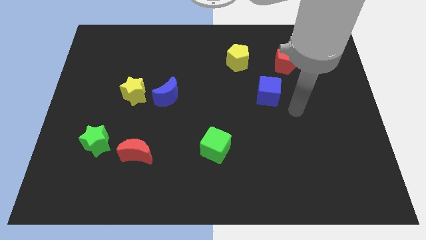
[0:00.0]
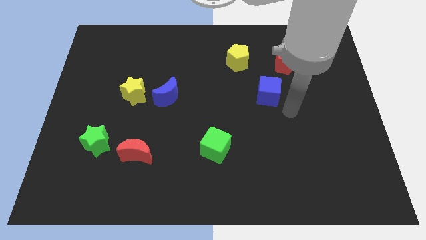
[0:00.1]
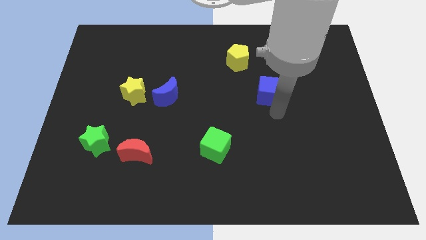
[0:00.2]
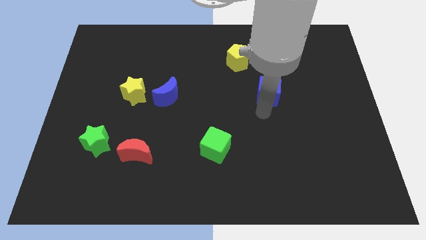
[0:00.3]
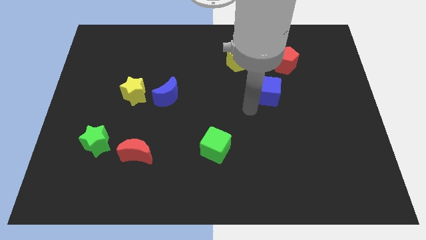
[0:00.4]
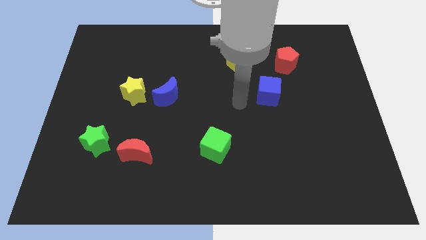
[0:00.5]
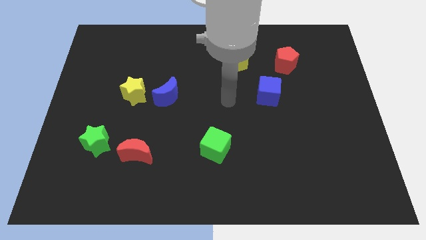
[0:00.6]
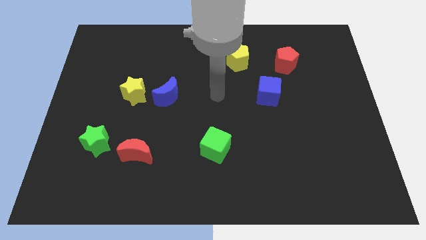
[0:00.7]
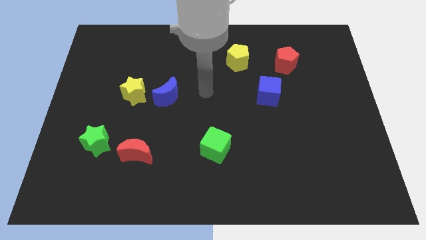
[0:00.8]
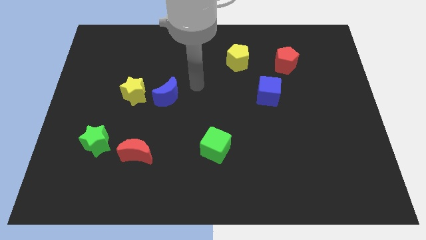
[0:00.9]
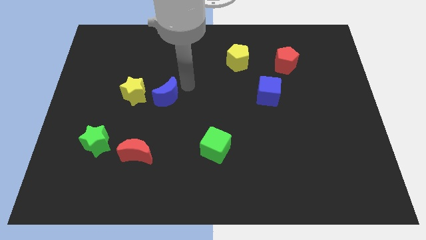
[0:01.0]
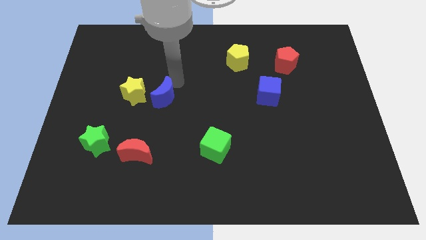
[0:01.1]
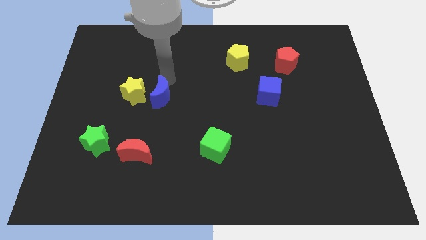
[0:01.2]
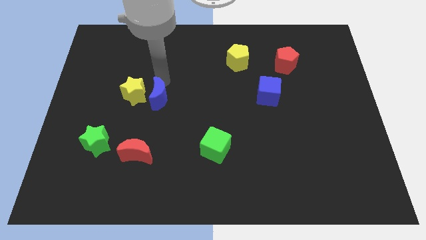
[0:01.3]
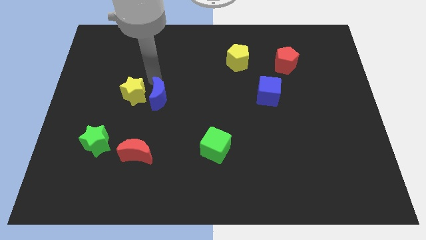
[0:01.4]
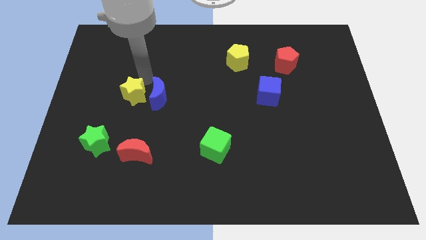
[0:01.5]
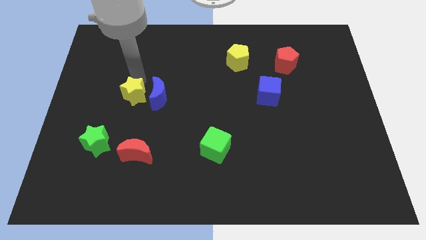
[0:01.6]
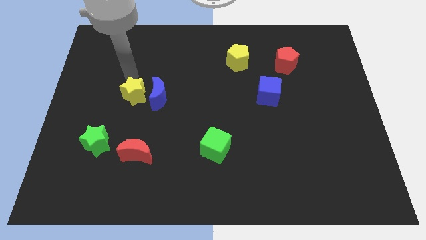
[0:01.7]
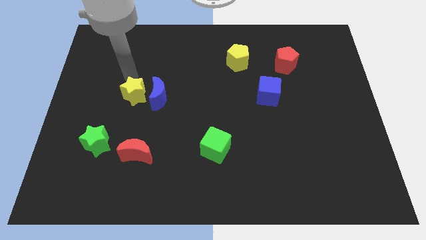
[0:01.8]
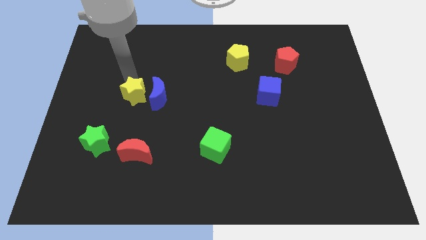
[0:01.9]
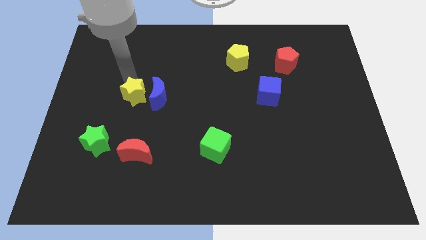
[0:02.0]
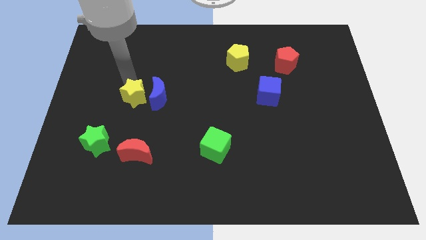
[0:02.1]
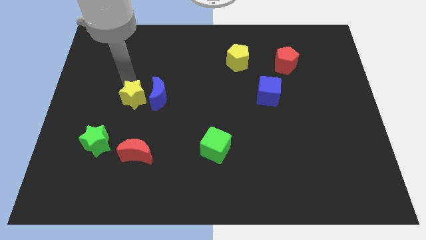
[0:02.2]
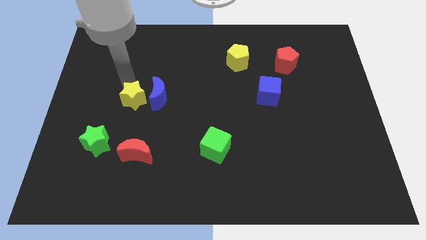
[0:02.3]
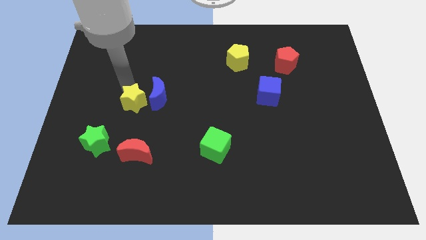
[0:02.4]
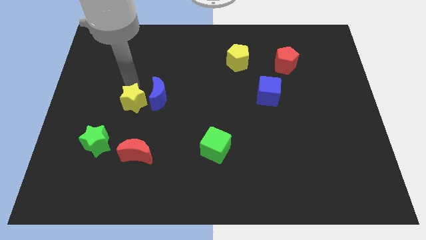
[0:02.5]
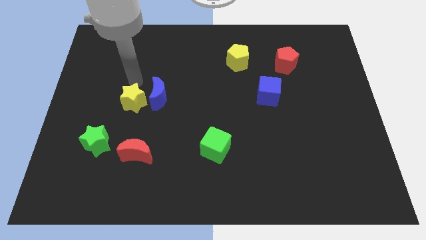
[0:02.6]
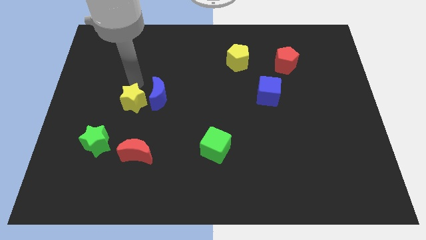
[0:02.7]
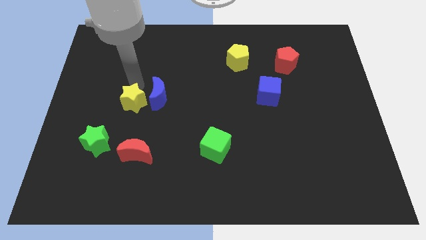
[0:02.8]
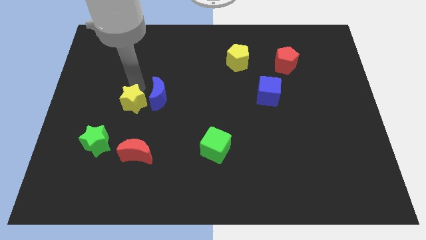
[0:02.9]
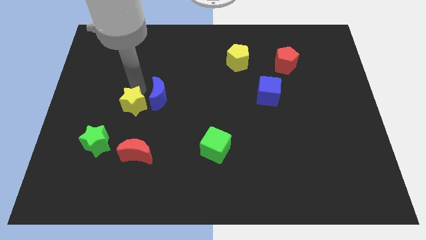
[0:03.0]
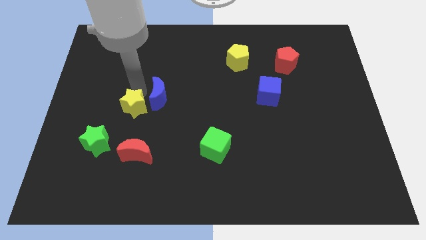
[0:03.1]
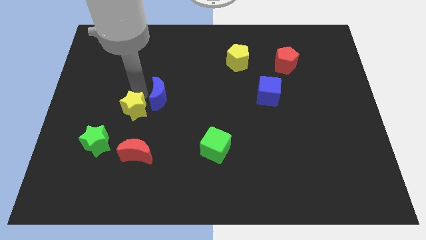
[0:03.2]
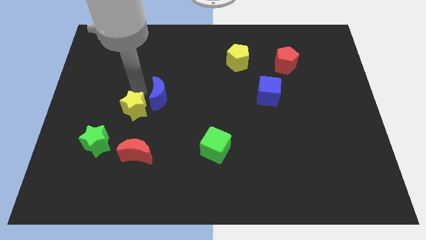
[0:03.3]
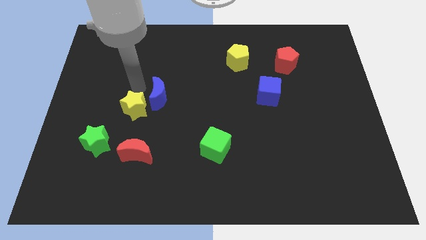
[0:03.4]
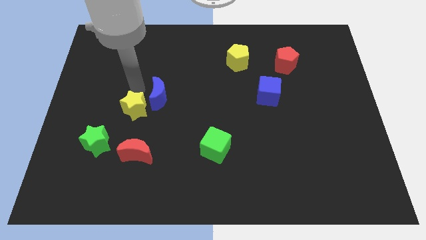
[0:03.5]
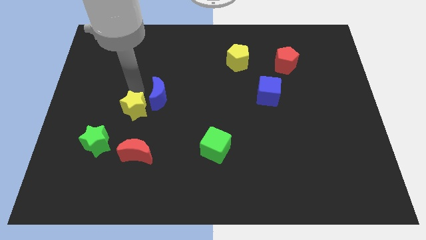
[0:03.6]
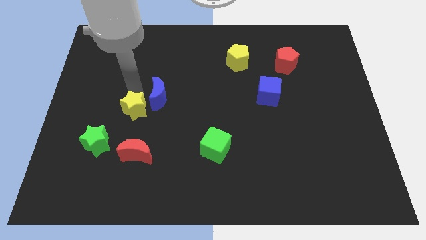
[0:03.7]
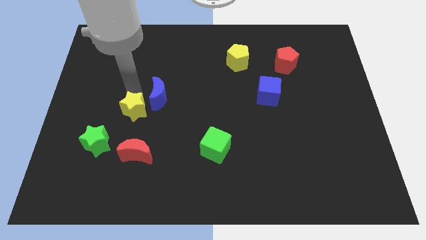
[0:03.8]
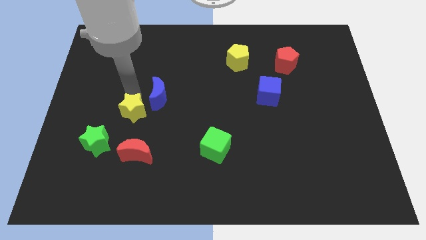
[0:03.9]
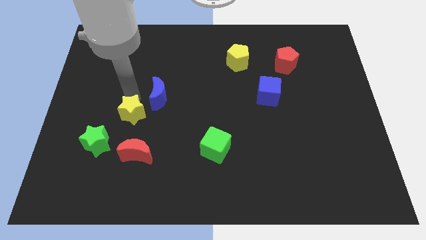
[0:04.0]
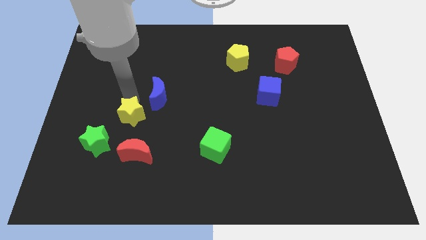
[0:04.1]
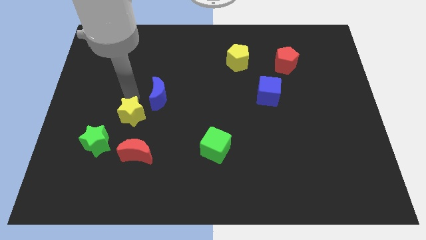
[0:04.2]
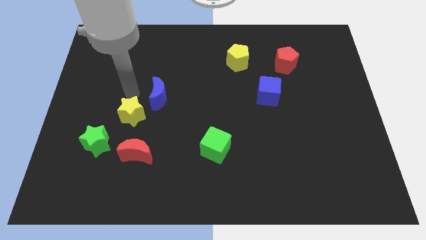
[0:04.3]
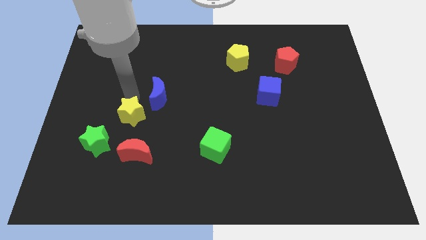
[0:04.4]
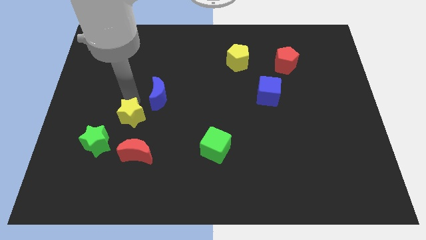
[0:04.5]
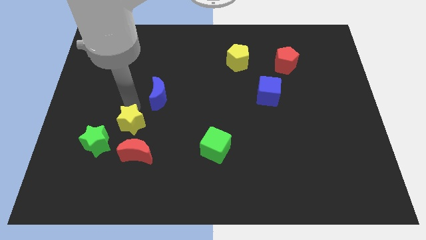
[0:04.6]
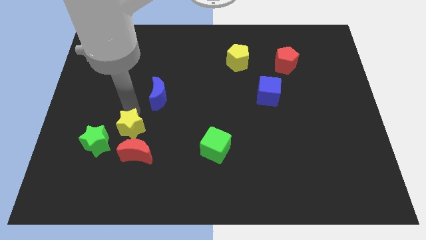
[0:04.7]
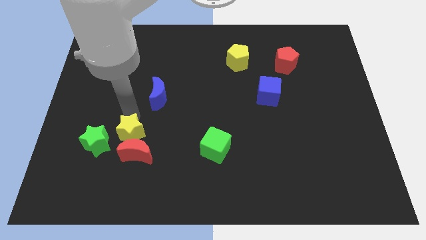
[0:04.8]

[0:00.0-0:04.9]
put the yellow star towards the red moon

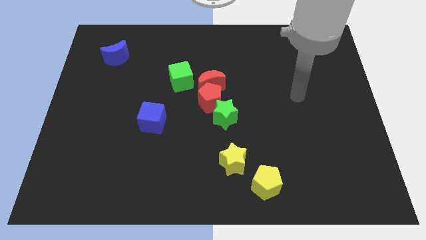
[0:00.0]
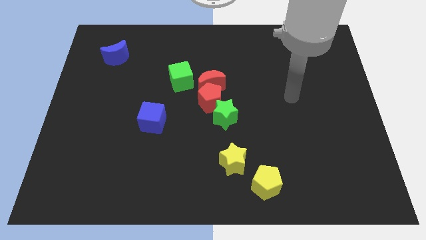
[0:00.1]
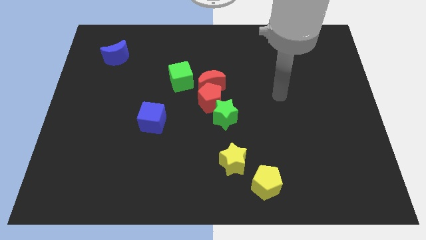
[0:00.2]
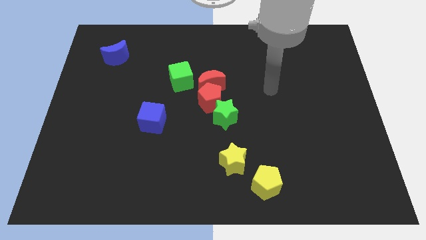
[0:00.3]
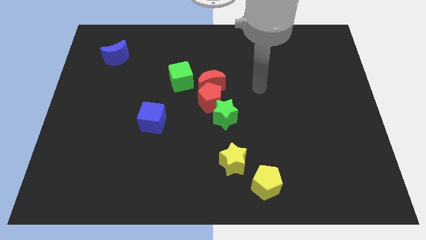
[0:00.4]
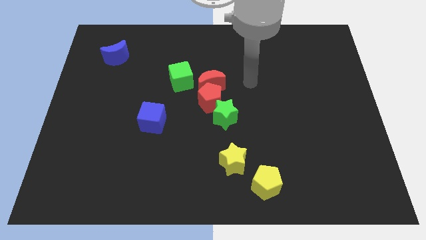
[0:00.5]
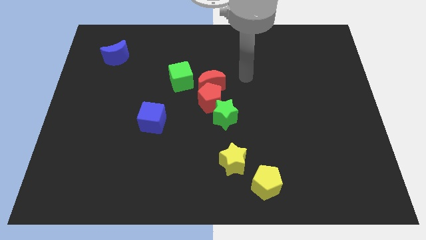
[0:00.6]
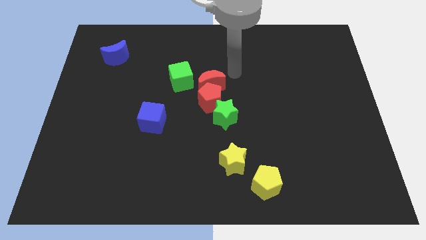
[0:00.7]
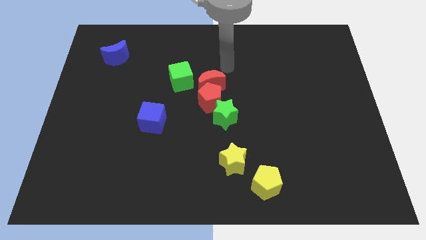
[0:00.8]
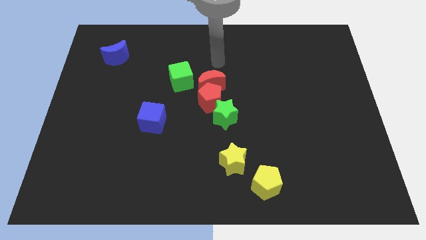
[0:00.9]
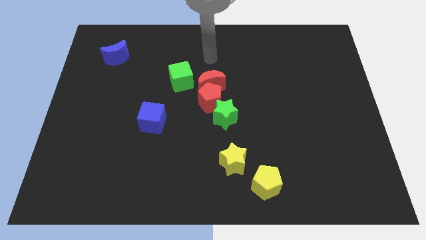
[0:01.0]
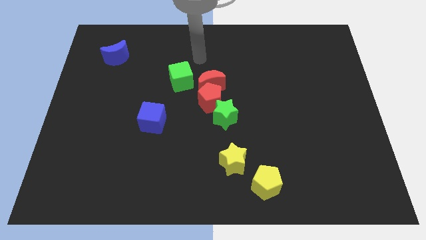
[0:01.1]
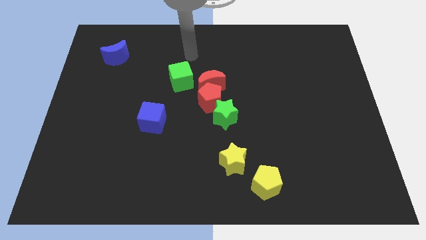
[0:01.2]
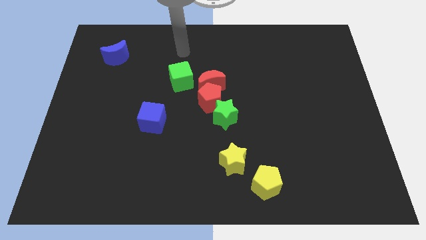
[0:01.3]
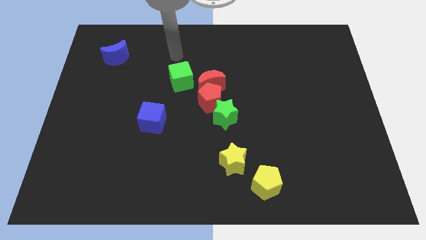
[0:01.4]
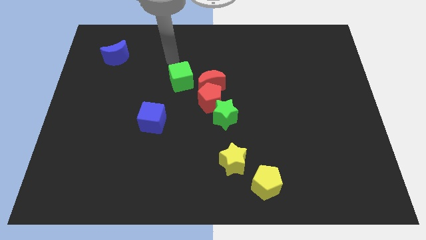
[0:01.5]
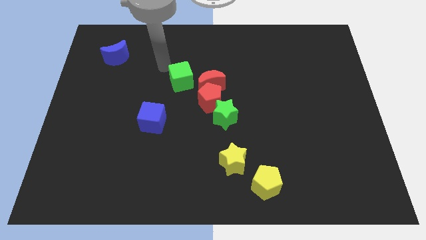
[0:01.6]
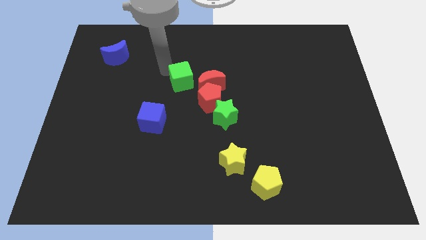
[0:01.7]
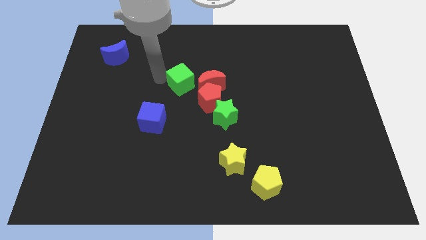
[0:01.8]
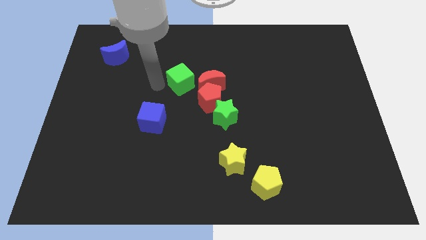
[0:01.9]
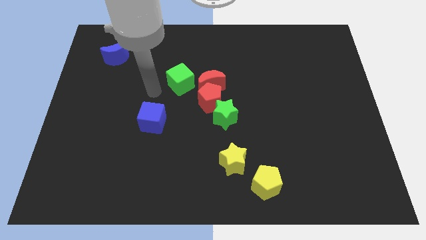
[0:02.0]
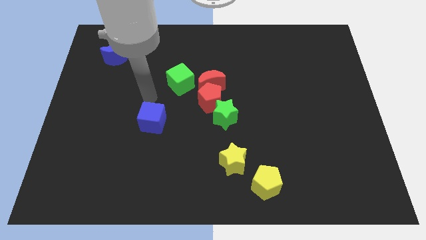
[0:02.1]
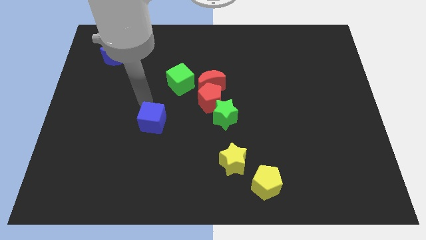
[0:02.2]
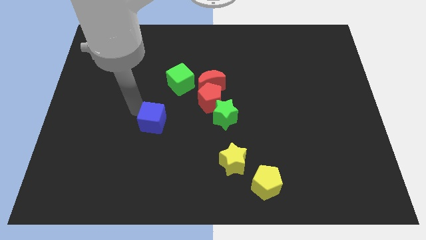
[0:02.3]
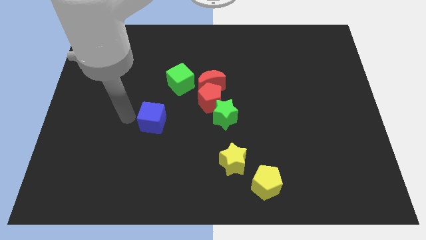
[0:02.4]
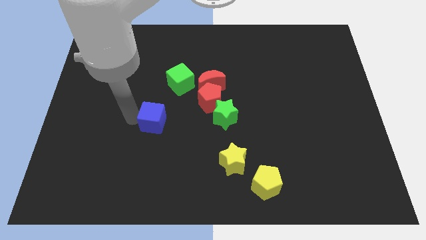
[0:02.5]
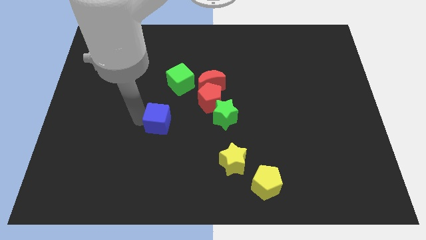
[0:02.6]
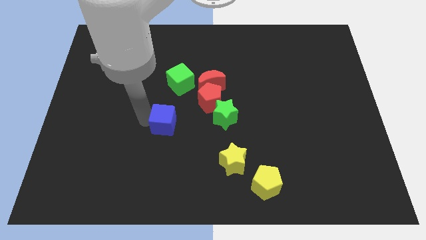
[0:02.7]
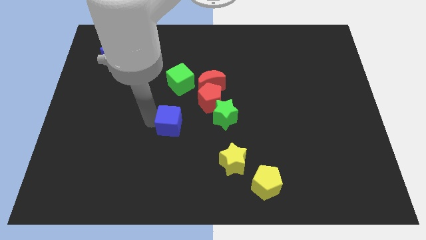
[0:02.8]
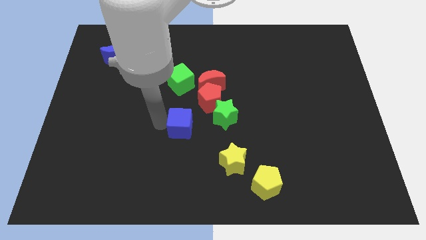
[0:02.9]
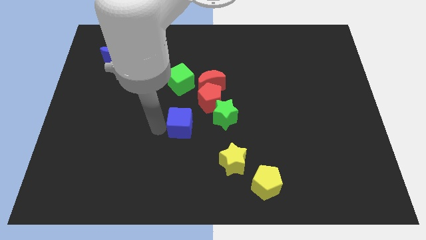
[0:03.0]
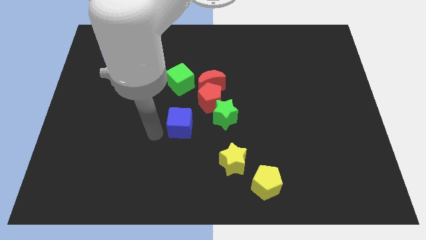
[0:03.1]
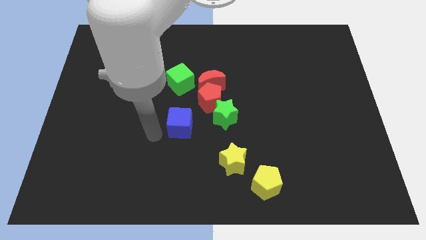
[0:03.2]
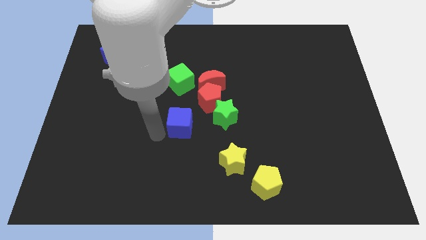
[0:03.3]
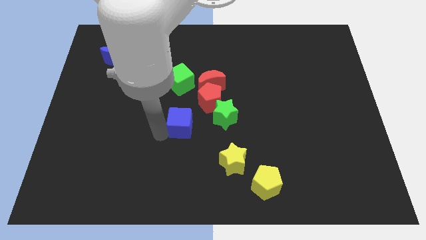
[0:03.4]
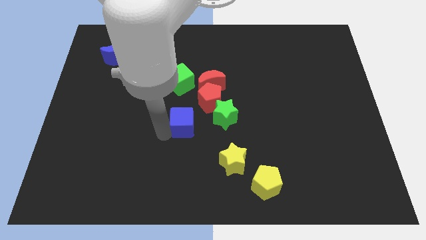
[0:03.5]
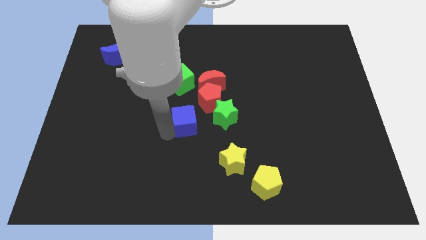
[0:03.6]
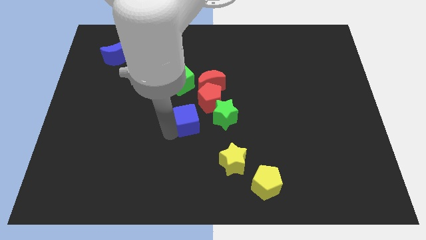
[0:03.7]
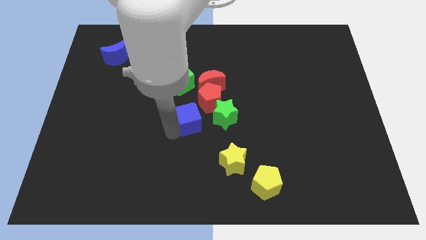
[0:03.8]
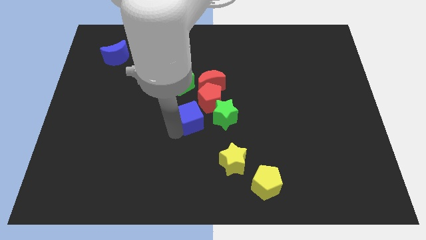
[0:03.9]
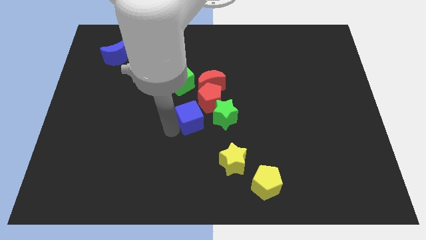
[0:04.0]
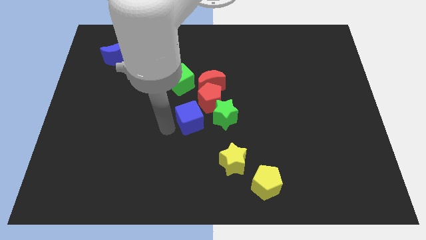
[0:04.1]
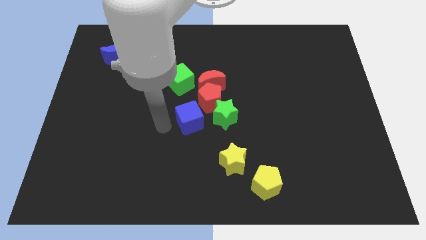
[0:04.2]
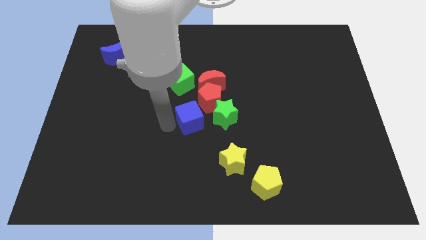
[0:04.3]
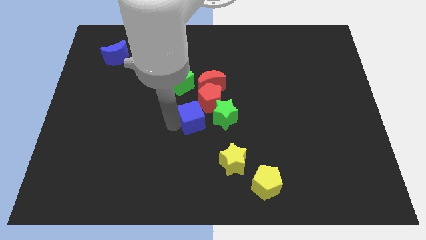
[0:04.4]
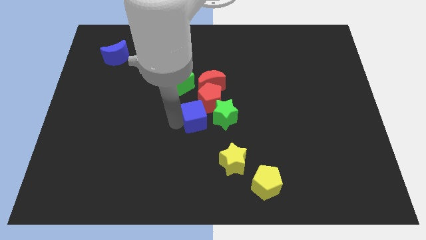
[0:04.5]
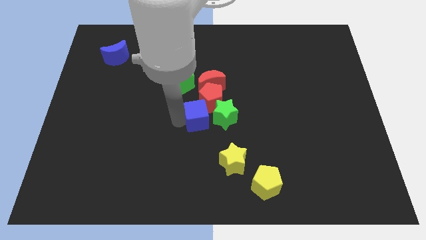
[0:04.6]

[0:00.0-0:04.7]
push the blue cube next to the green star
